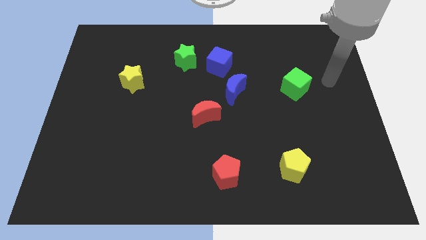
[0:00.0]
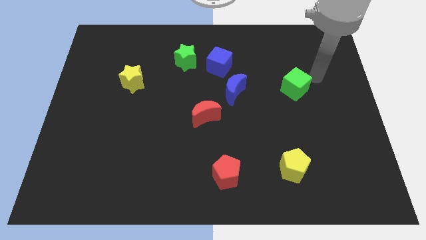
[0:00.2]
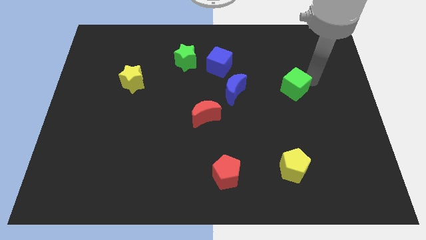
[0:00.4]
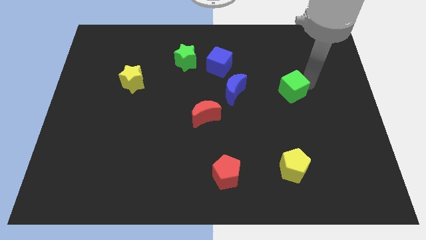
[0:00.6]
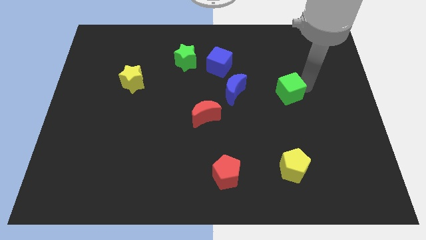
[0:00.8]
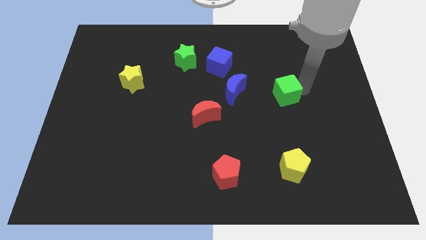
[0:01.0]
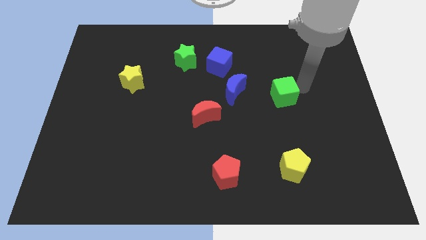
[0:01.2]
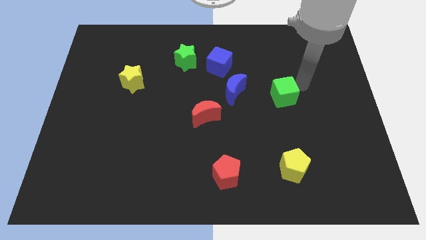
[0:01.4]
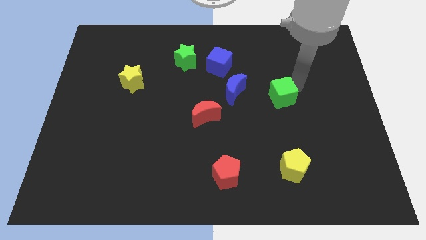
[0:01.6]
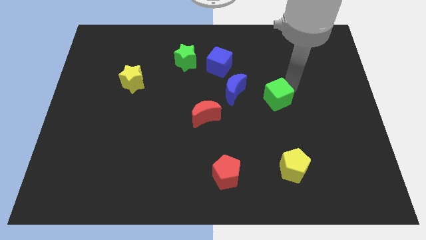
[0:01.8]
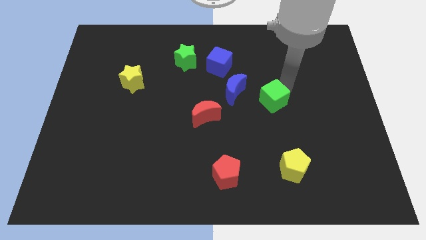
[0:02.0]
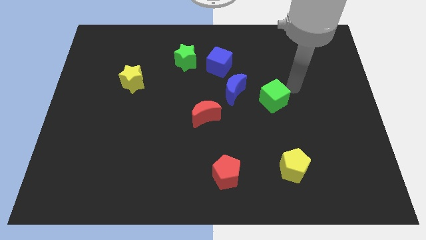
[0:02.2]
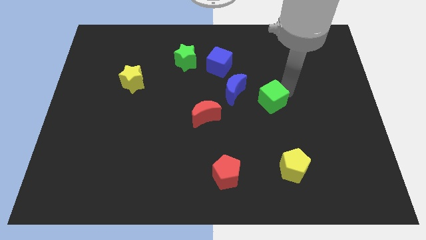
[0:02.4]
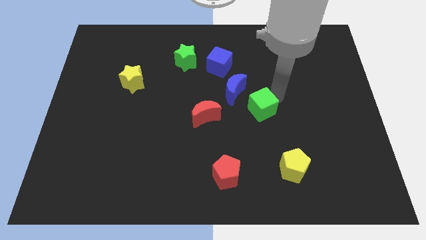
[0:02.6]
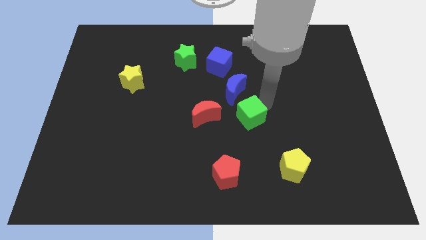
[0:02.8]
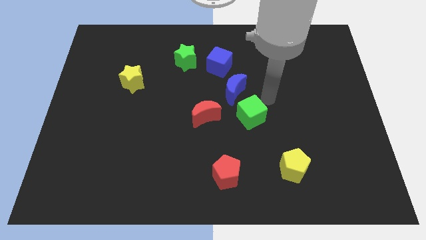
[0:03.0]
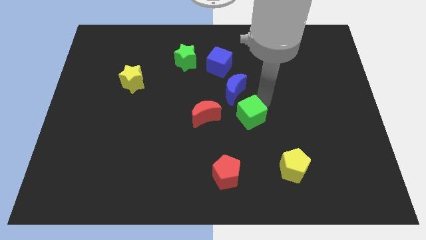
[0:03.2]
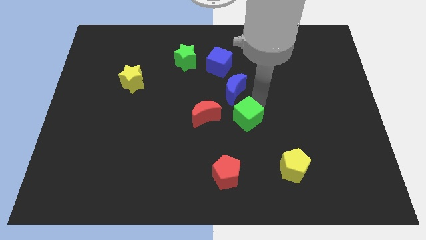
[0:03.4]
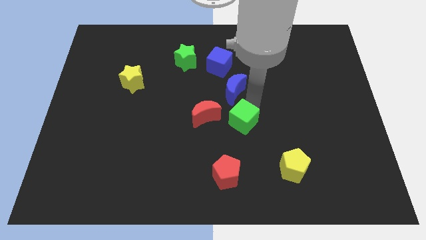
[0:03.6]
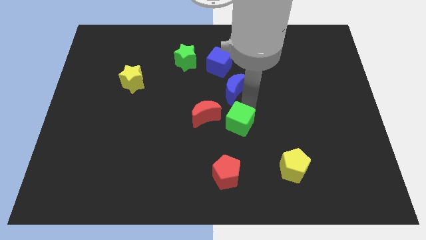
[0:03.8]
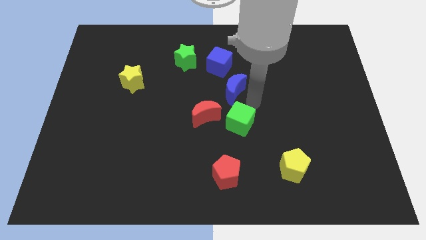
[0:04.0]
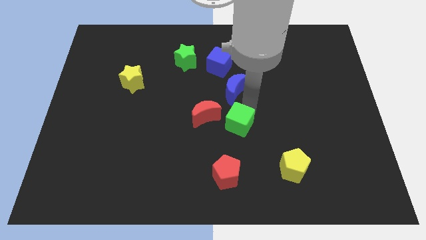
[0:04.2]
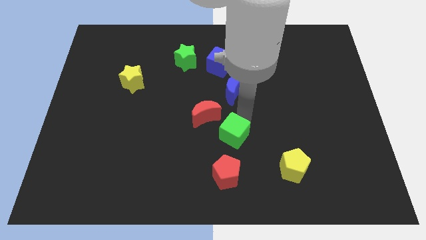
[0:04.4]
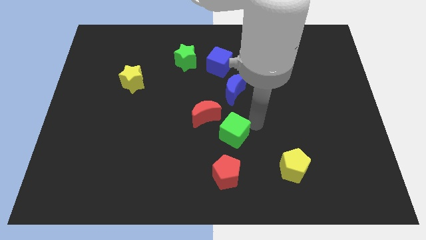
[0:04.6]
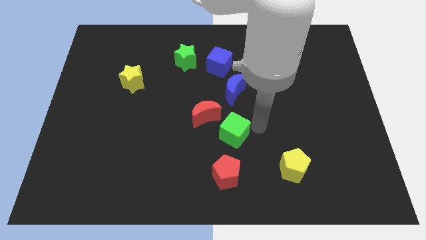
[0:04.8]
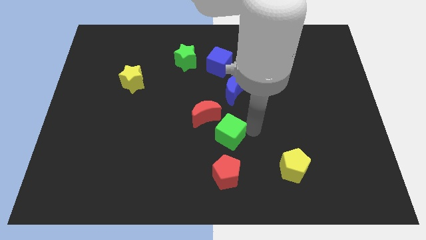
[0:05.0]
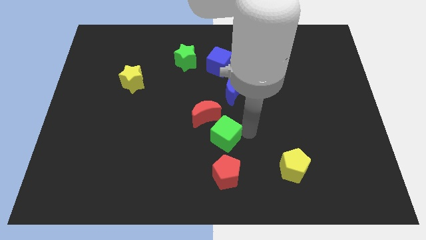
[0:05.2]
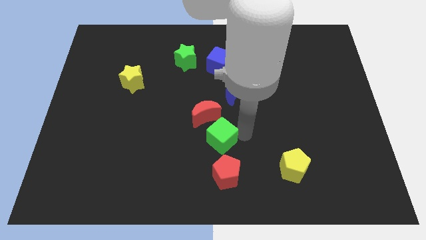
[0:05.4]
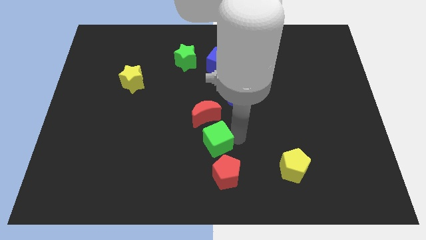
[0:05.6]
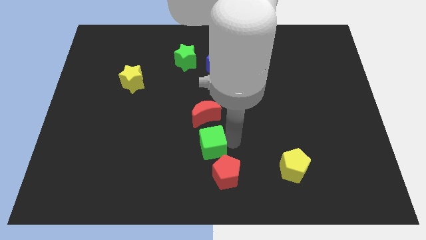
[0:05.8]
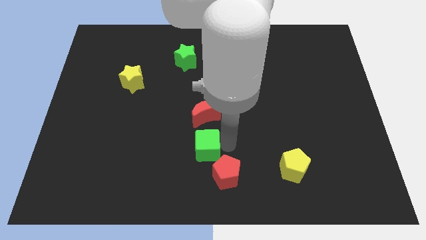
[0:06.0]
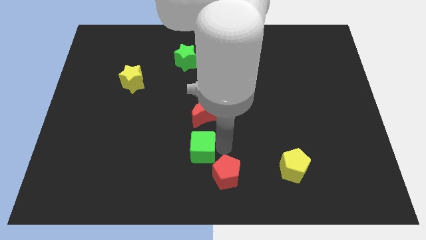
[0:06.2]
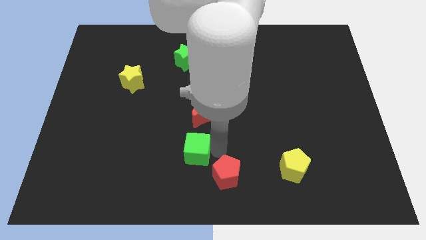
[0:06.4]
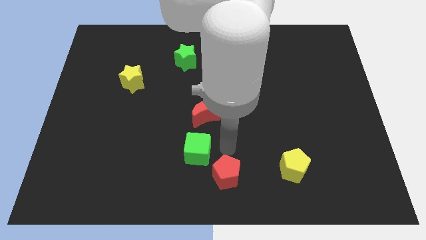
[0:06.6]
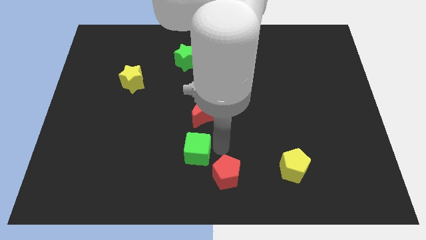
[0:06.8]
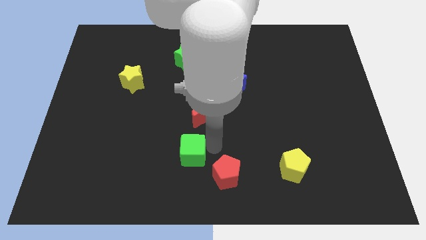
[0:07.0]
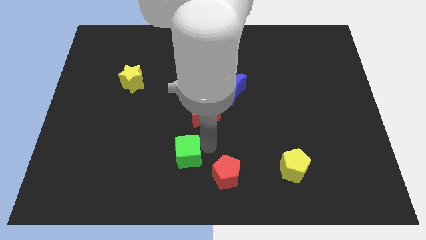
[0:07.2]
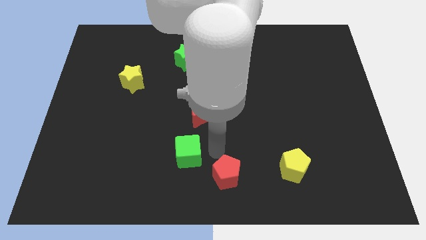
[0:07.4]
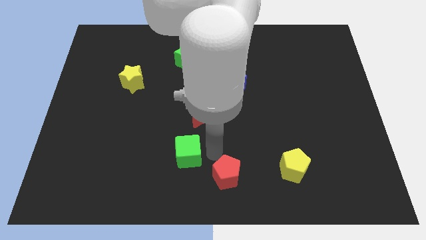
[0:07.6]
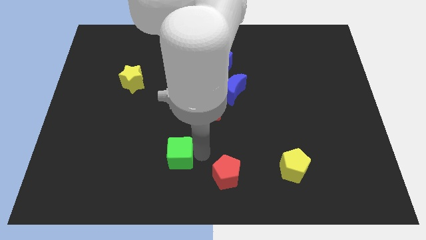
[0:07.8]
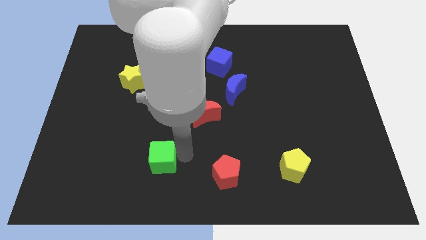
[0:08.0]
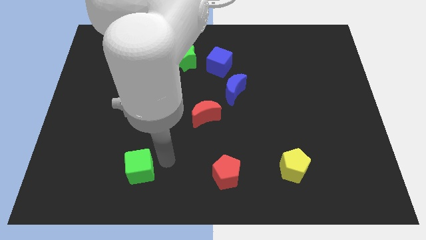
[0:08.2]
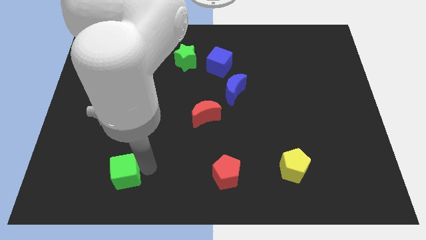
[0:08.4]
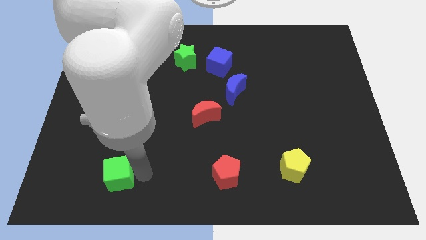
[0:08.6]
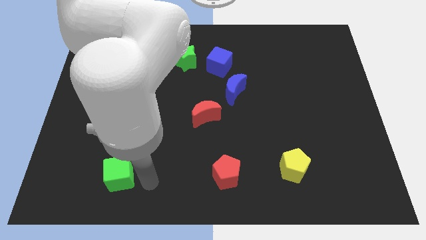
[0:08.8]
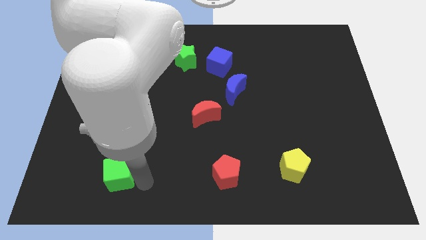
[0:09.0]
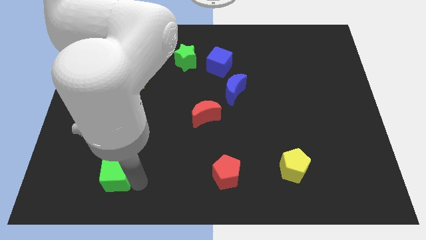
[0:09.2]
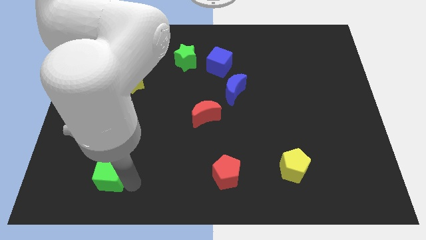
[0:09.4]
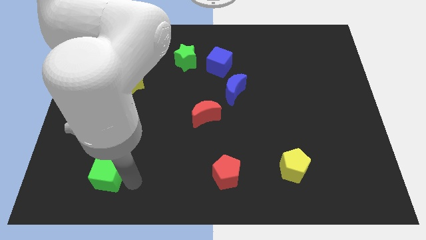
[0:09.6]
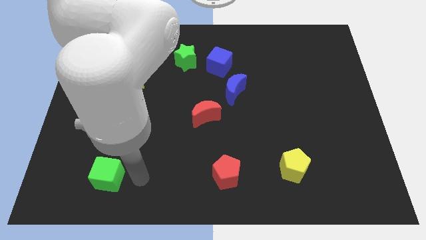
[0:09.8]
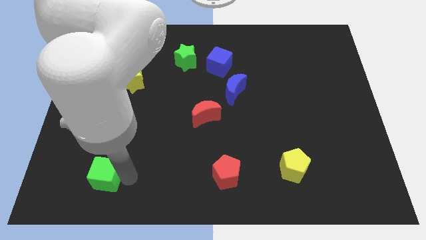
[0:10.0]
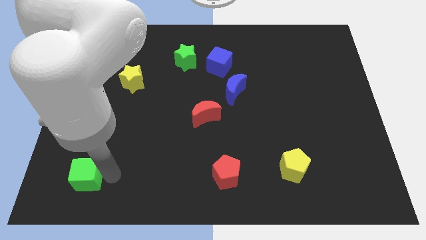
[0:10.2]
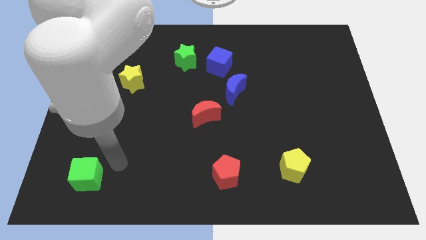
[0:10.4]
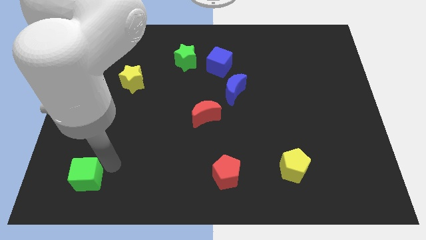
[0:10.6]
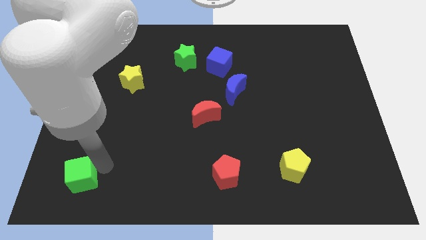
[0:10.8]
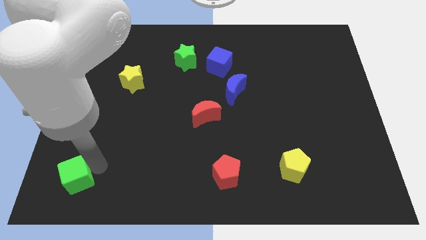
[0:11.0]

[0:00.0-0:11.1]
move the green cube to the bottom left of the board

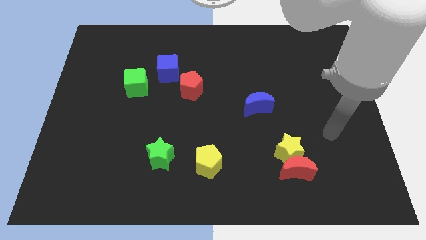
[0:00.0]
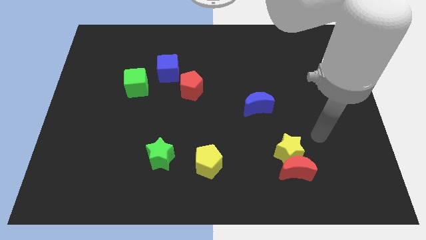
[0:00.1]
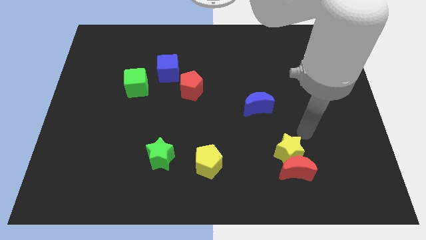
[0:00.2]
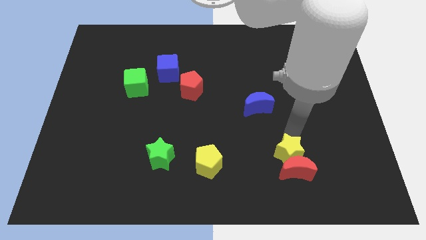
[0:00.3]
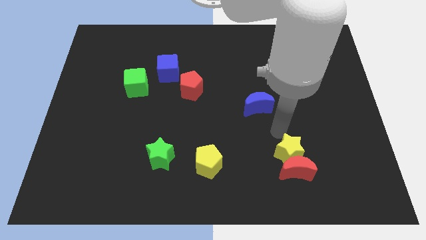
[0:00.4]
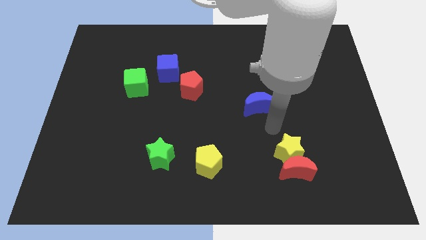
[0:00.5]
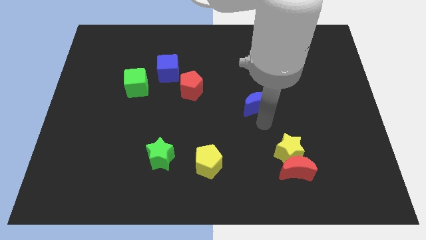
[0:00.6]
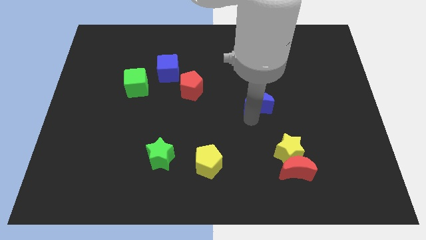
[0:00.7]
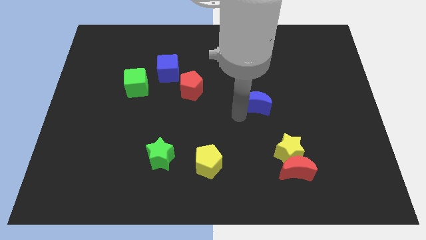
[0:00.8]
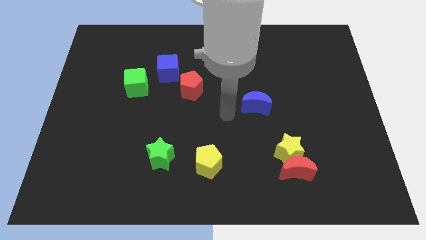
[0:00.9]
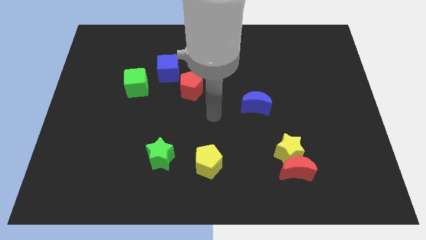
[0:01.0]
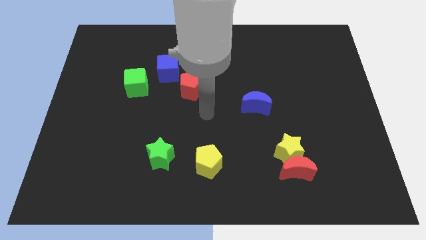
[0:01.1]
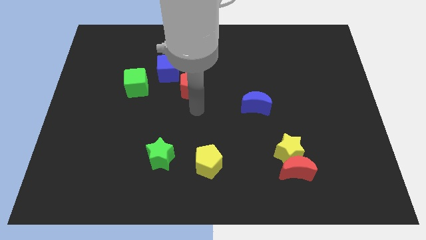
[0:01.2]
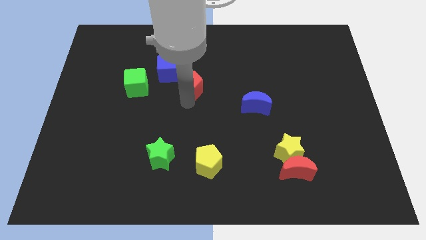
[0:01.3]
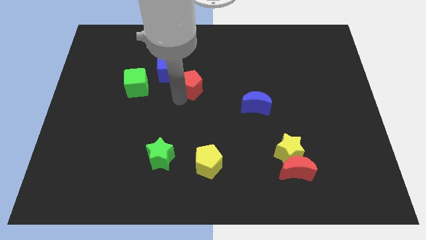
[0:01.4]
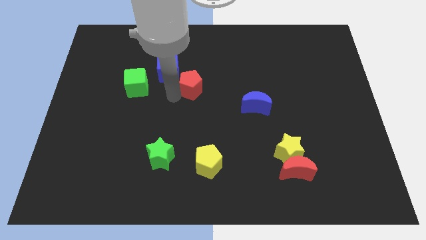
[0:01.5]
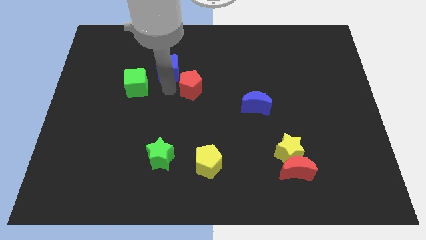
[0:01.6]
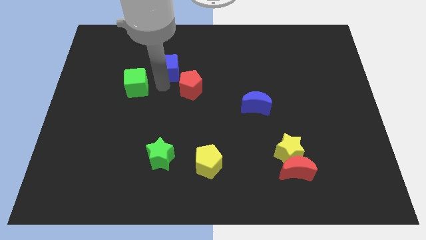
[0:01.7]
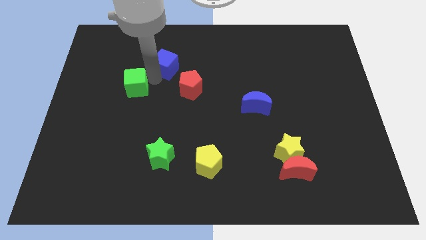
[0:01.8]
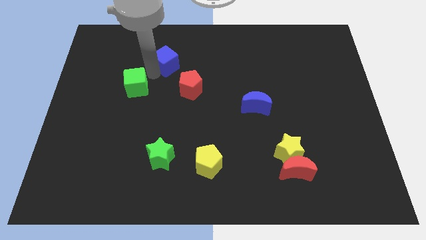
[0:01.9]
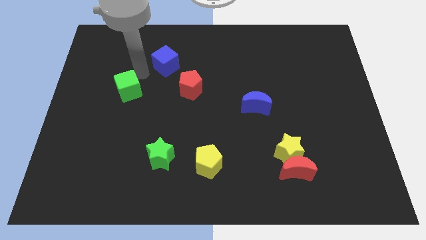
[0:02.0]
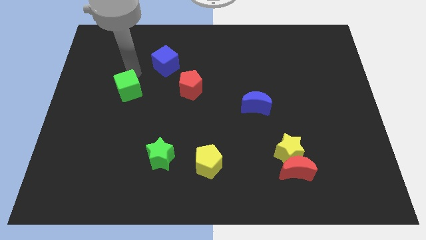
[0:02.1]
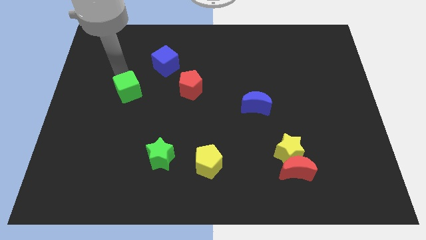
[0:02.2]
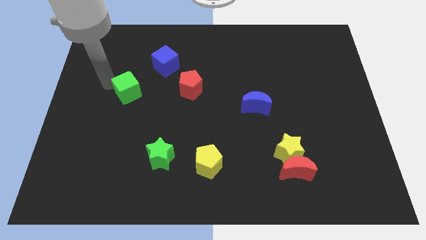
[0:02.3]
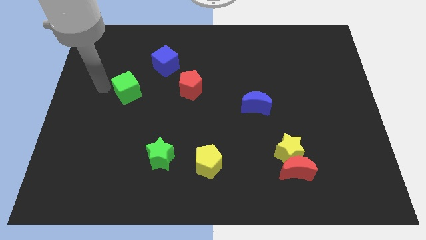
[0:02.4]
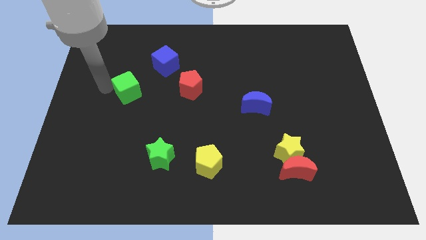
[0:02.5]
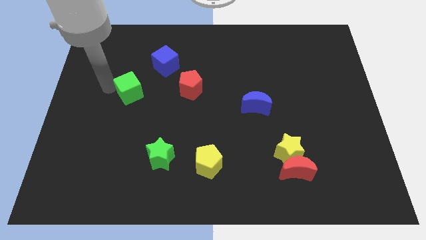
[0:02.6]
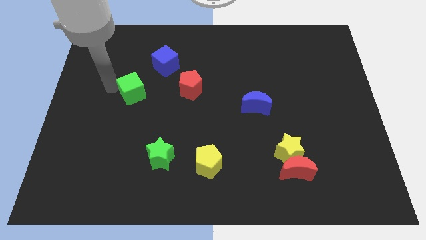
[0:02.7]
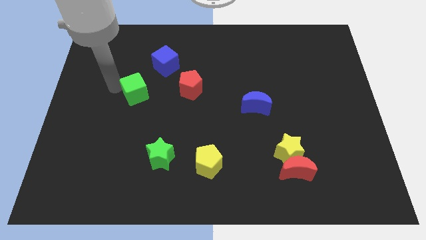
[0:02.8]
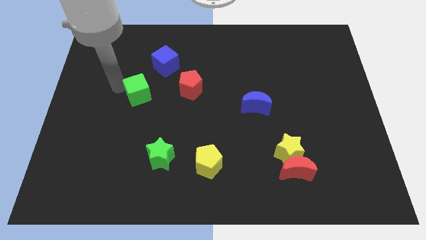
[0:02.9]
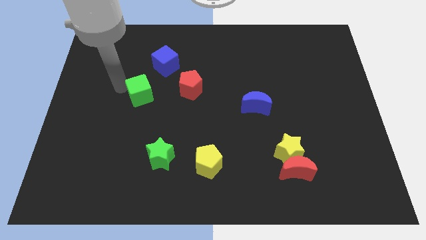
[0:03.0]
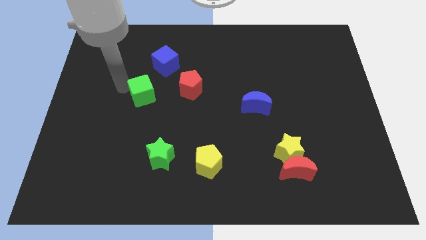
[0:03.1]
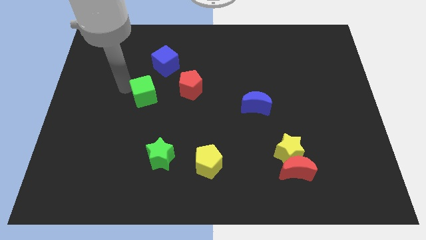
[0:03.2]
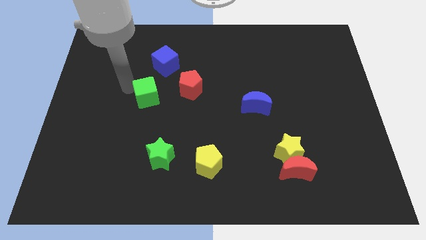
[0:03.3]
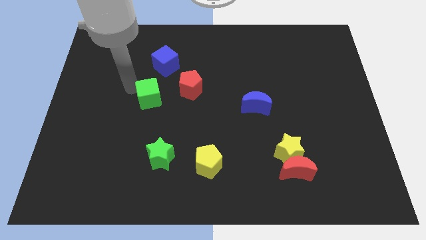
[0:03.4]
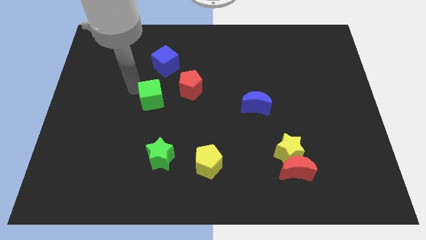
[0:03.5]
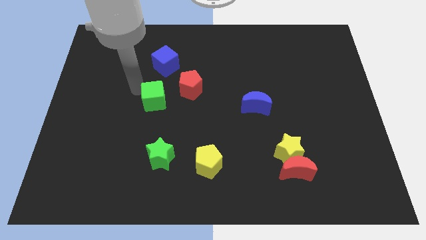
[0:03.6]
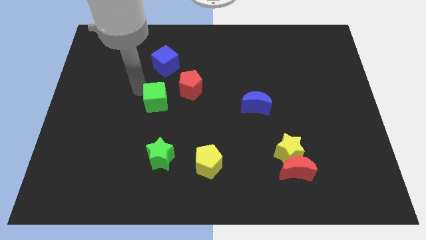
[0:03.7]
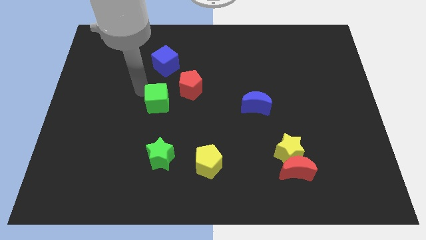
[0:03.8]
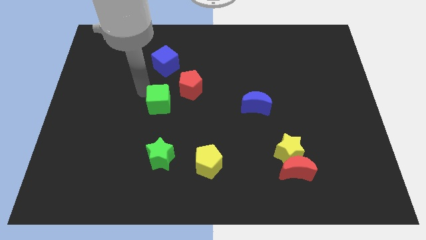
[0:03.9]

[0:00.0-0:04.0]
put the green cube to the center
